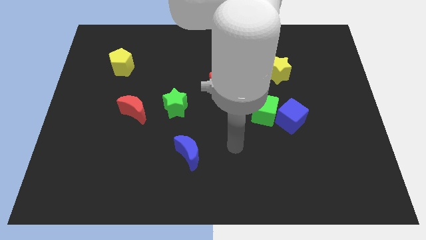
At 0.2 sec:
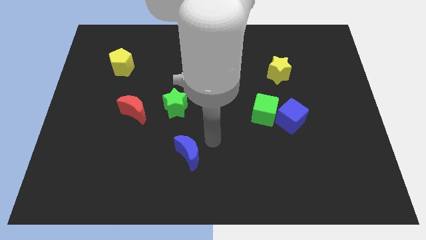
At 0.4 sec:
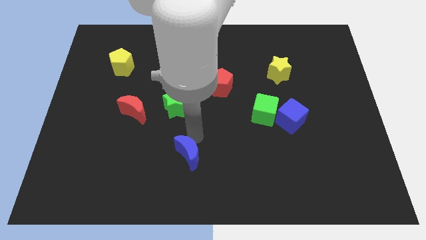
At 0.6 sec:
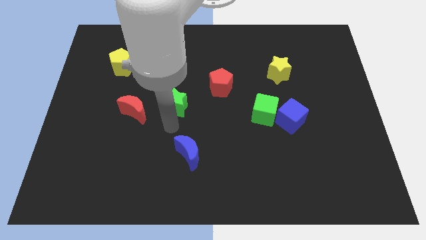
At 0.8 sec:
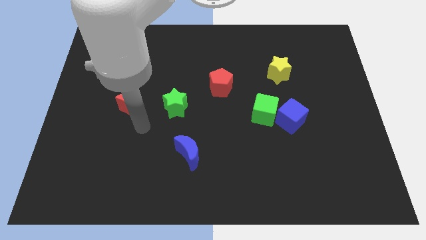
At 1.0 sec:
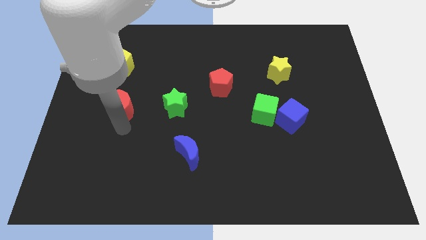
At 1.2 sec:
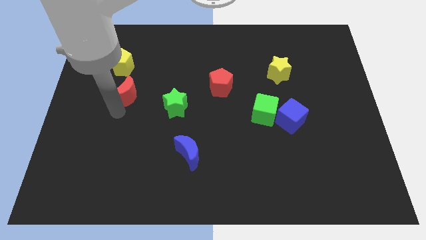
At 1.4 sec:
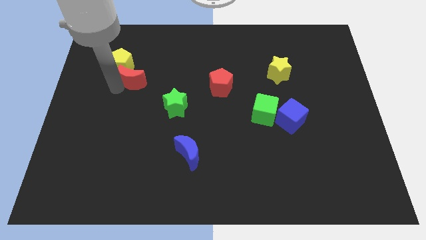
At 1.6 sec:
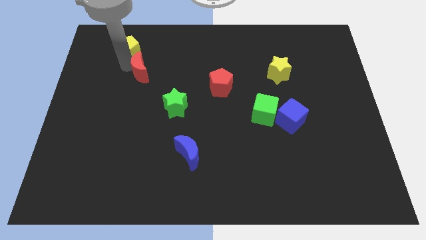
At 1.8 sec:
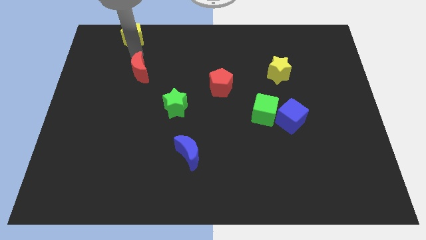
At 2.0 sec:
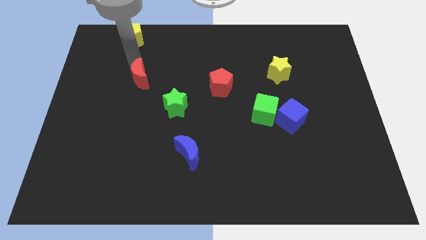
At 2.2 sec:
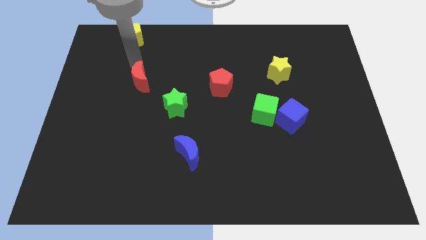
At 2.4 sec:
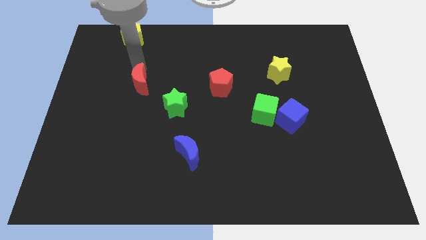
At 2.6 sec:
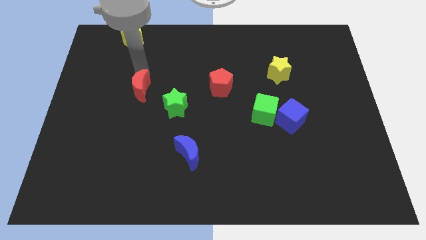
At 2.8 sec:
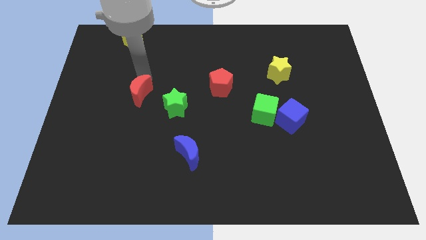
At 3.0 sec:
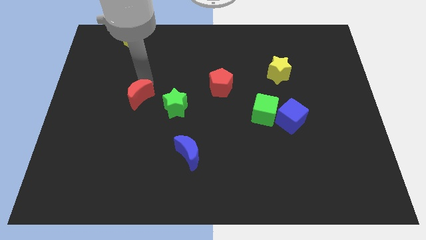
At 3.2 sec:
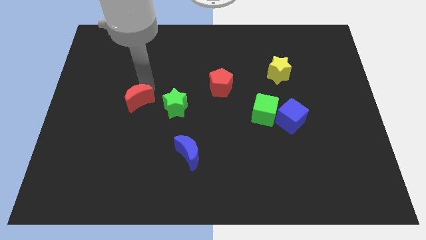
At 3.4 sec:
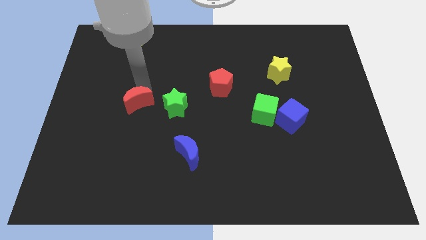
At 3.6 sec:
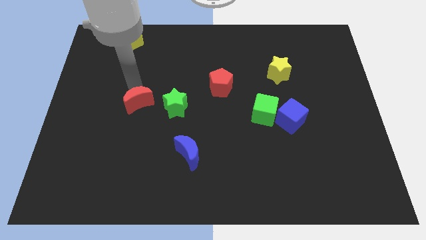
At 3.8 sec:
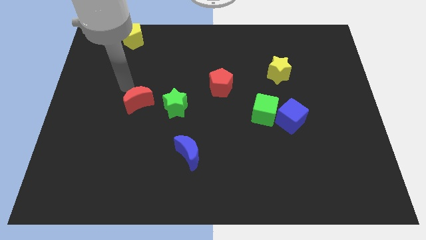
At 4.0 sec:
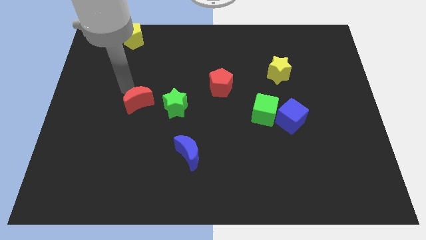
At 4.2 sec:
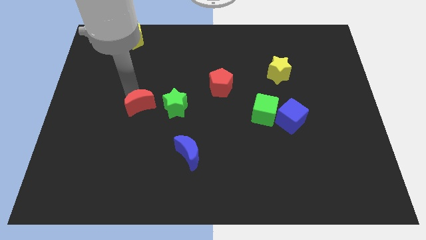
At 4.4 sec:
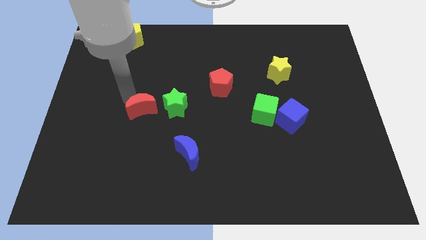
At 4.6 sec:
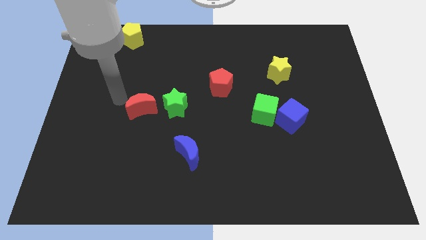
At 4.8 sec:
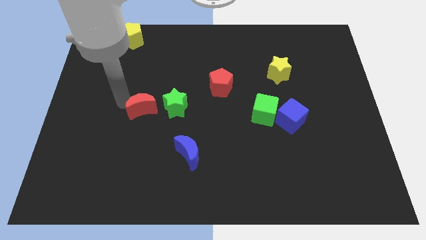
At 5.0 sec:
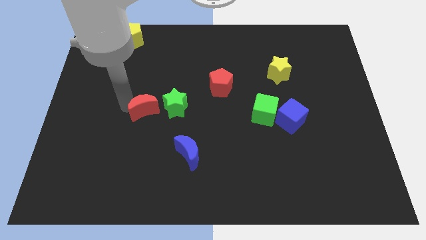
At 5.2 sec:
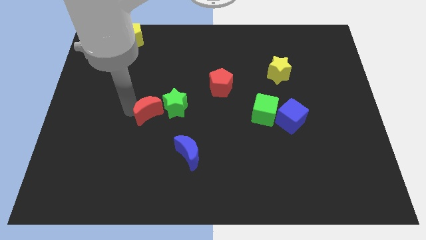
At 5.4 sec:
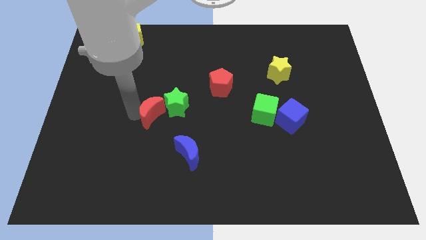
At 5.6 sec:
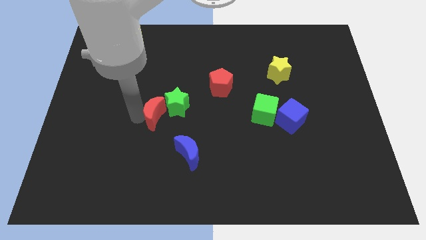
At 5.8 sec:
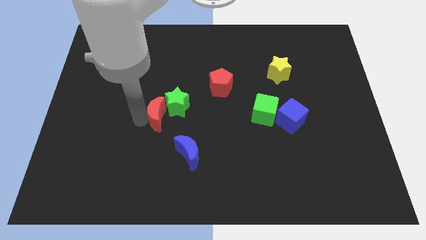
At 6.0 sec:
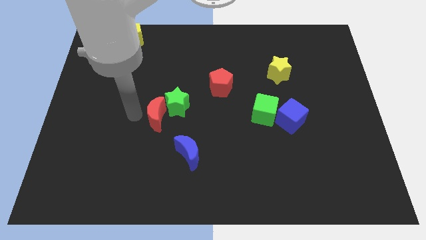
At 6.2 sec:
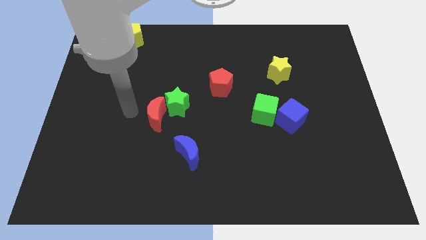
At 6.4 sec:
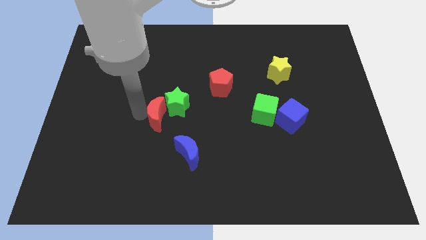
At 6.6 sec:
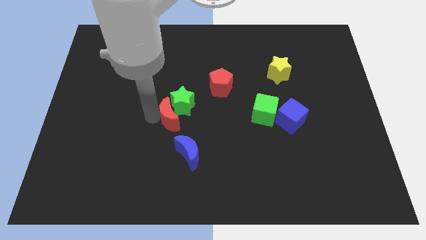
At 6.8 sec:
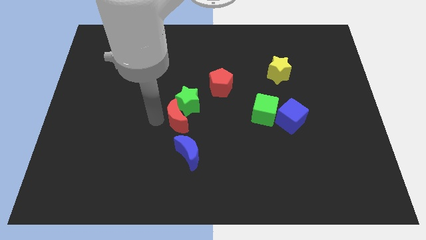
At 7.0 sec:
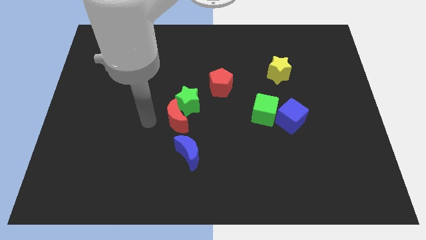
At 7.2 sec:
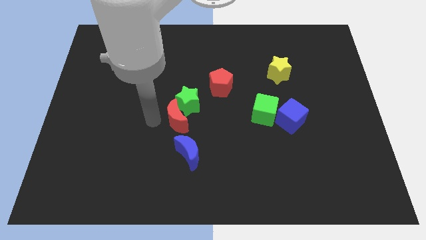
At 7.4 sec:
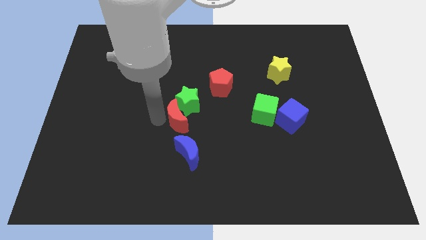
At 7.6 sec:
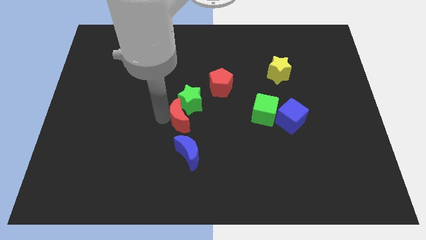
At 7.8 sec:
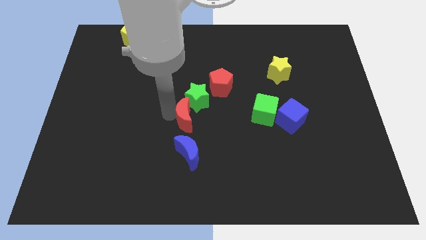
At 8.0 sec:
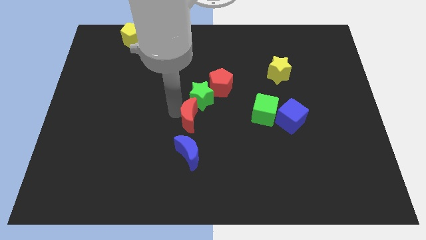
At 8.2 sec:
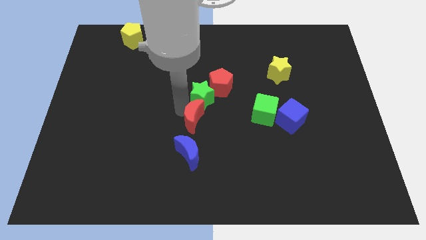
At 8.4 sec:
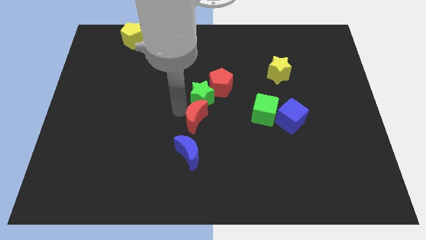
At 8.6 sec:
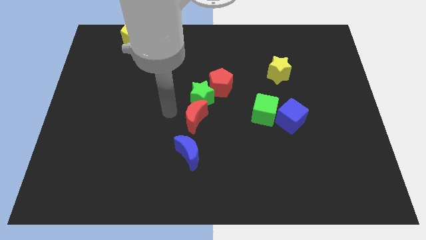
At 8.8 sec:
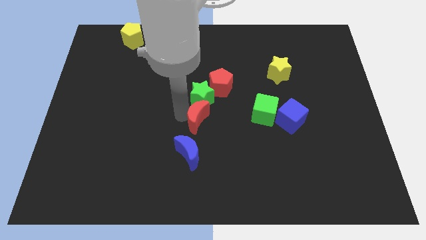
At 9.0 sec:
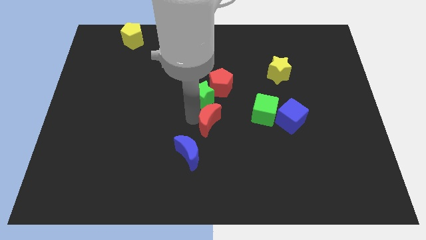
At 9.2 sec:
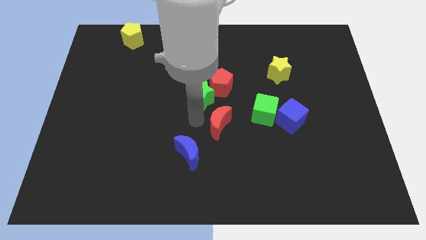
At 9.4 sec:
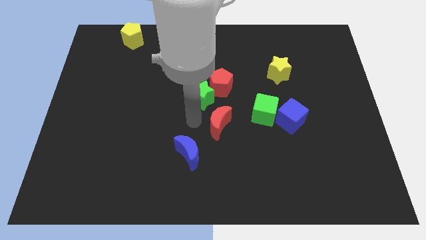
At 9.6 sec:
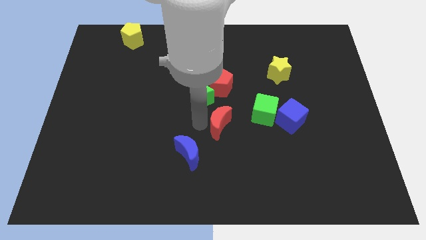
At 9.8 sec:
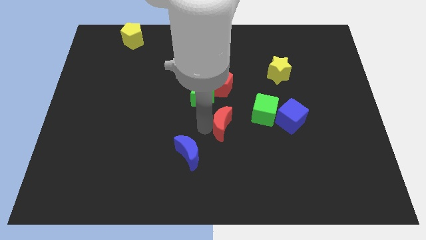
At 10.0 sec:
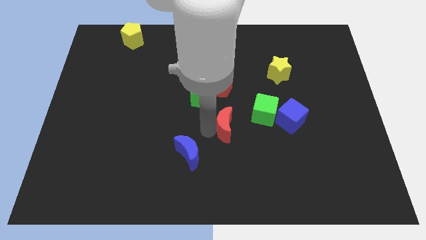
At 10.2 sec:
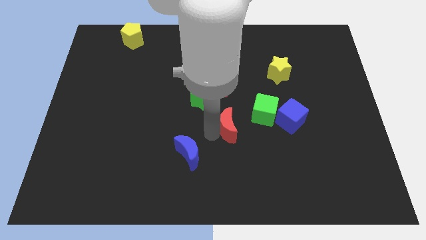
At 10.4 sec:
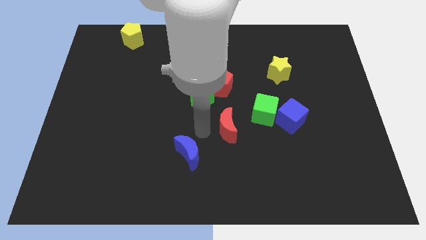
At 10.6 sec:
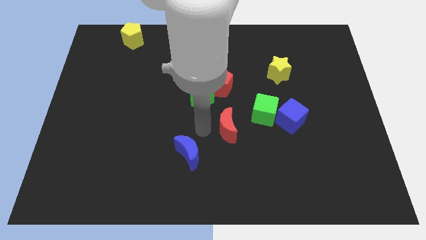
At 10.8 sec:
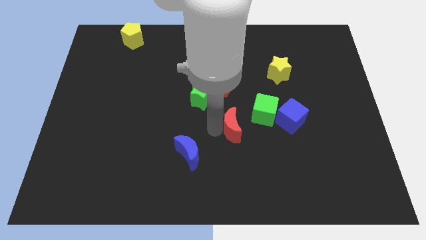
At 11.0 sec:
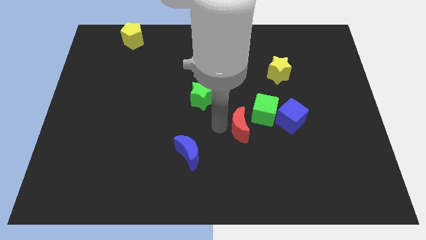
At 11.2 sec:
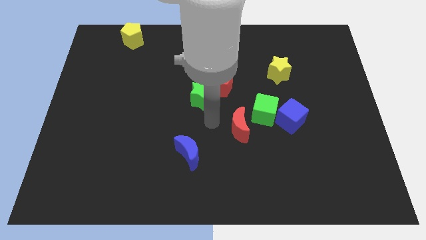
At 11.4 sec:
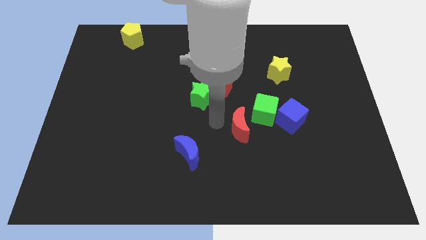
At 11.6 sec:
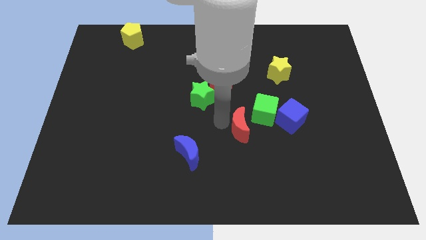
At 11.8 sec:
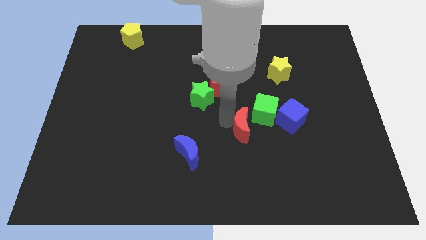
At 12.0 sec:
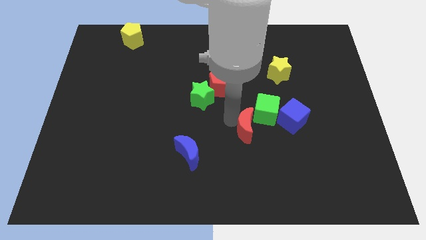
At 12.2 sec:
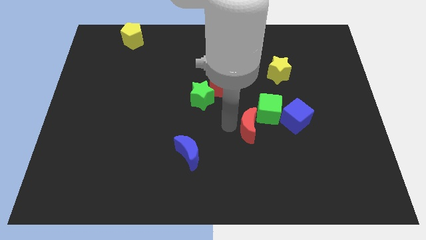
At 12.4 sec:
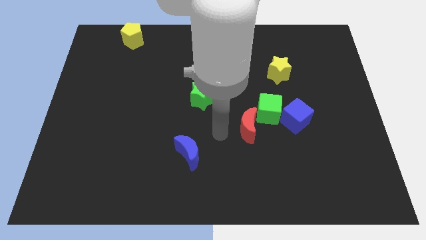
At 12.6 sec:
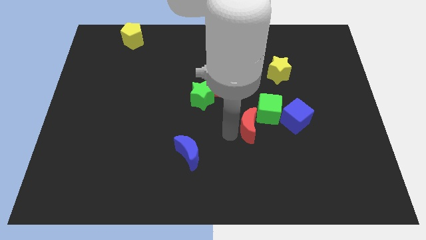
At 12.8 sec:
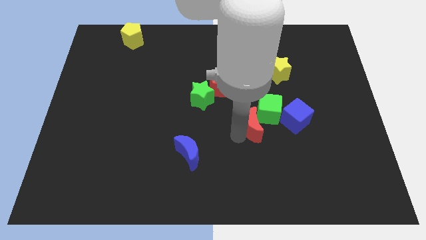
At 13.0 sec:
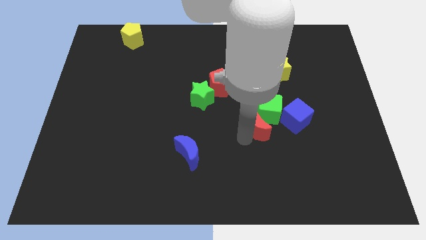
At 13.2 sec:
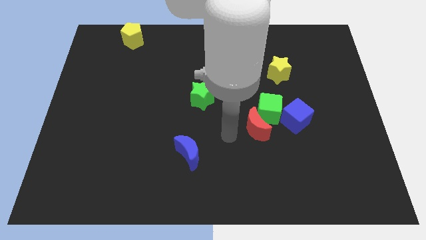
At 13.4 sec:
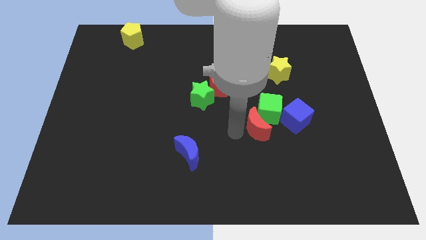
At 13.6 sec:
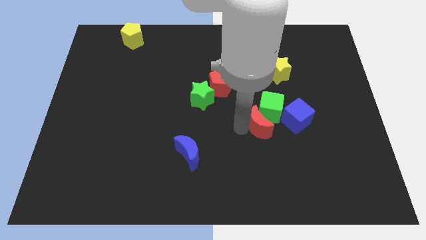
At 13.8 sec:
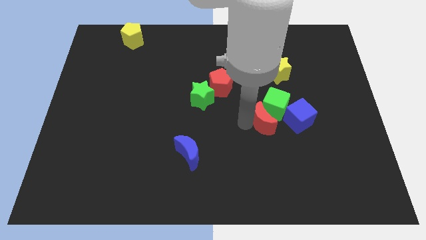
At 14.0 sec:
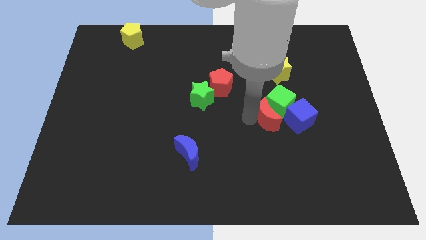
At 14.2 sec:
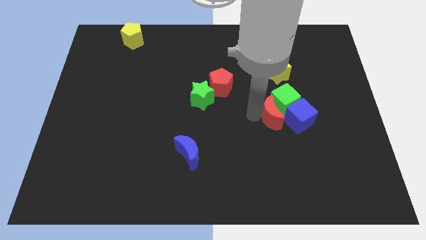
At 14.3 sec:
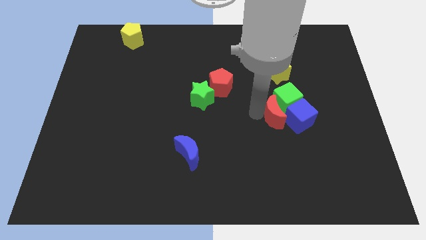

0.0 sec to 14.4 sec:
move the red moon close to the blue cube
